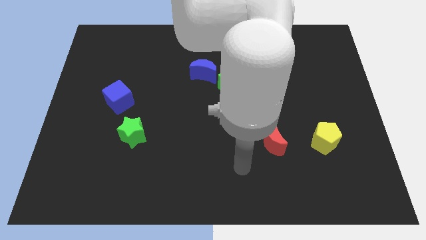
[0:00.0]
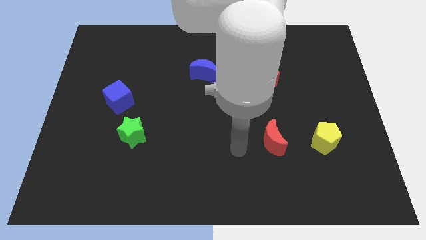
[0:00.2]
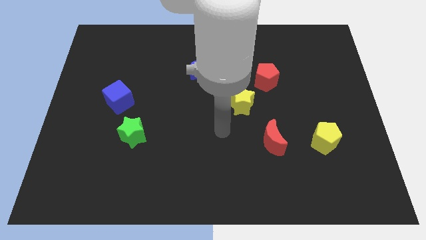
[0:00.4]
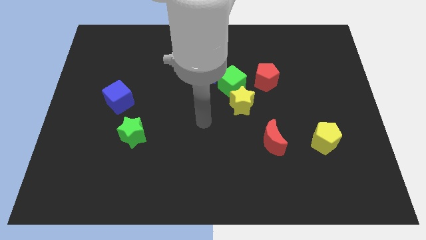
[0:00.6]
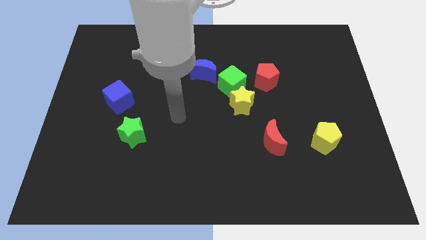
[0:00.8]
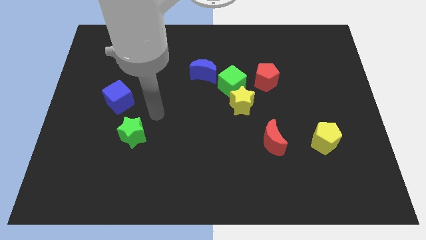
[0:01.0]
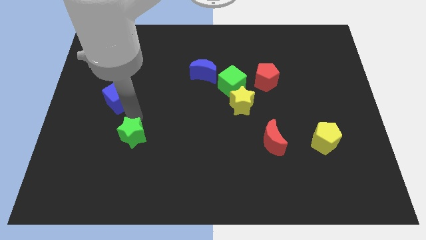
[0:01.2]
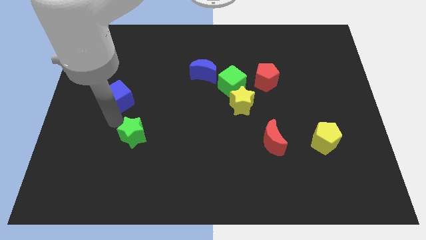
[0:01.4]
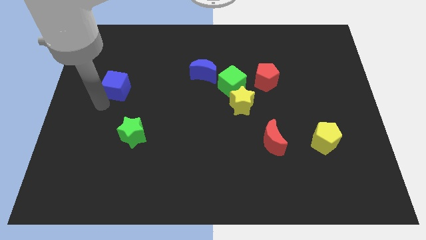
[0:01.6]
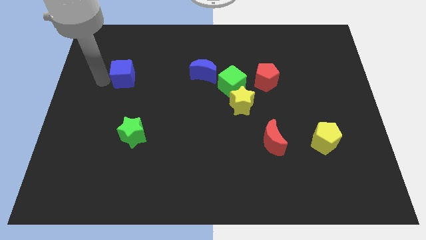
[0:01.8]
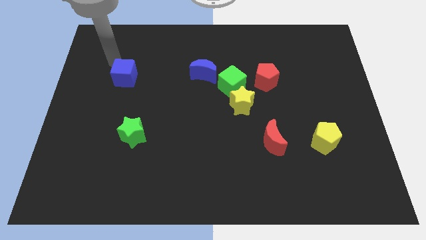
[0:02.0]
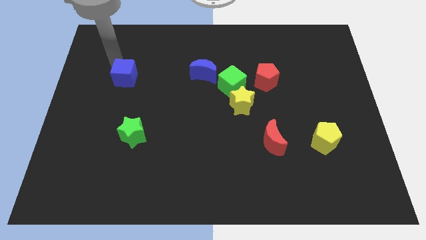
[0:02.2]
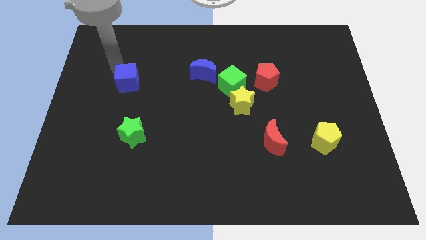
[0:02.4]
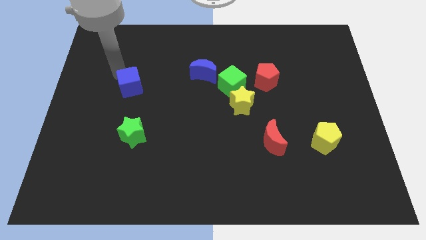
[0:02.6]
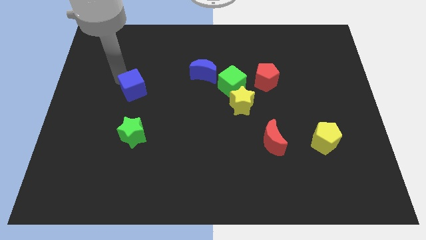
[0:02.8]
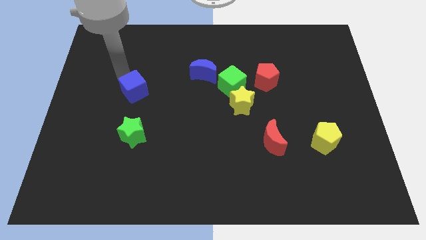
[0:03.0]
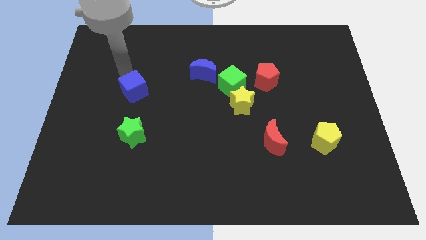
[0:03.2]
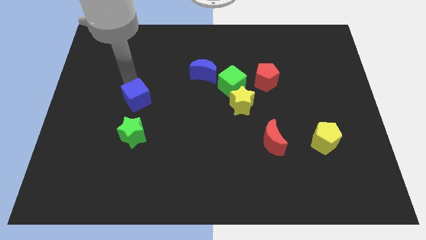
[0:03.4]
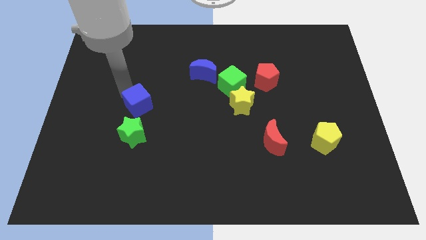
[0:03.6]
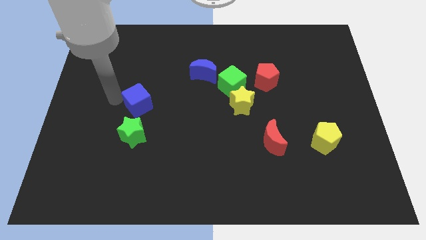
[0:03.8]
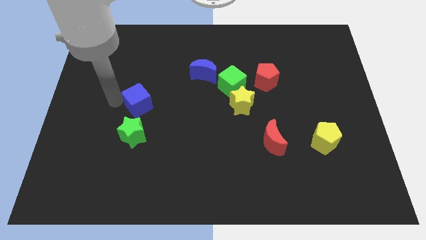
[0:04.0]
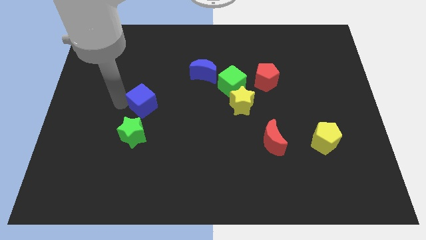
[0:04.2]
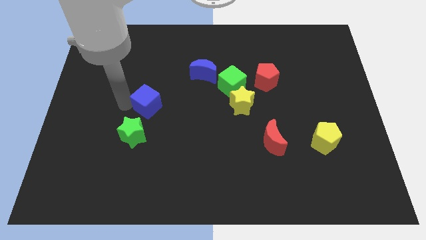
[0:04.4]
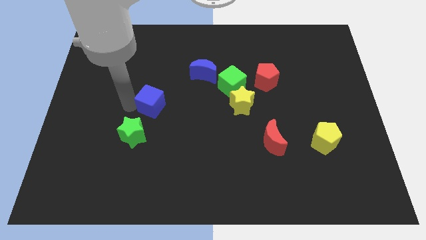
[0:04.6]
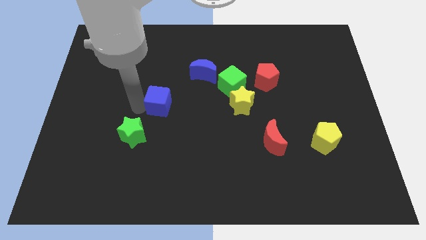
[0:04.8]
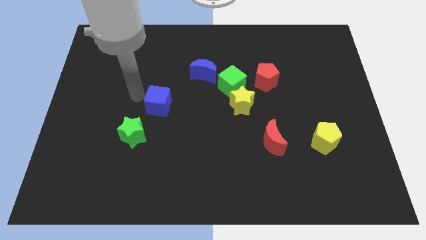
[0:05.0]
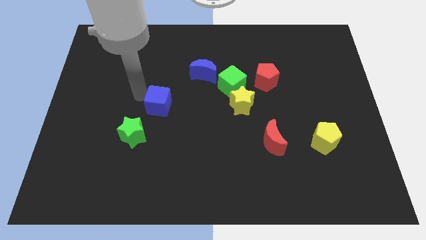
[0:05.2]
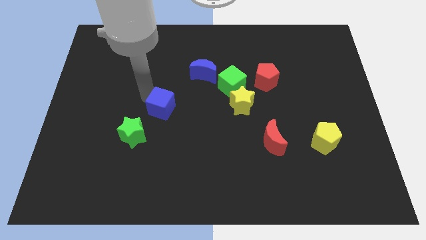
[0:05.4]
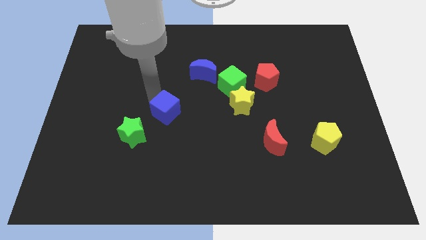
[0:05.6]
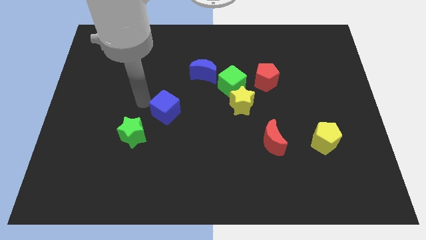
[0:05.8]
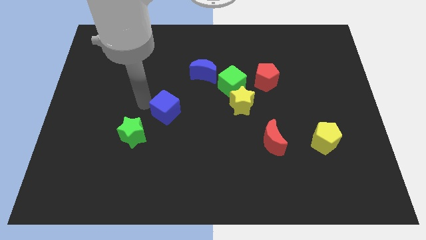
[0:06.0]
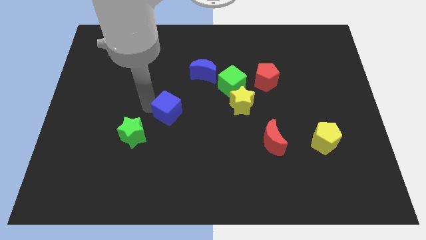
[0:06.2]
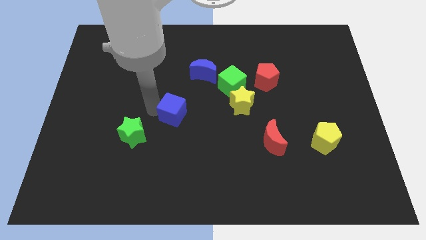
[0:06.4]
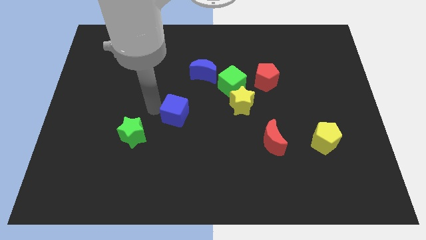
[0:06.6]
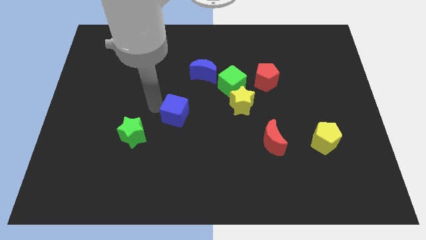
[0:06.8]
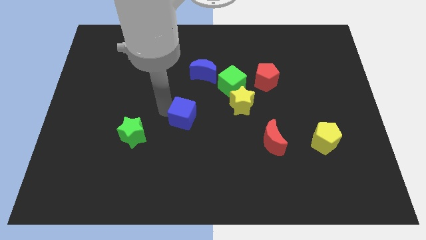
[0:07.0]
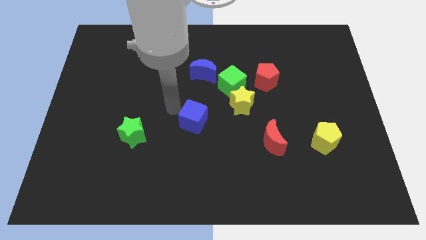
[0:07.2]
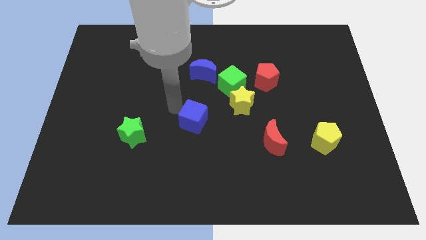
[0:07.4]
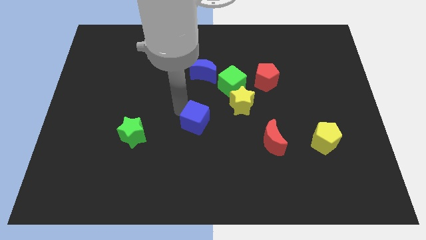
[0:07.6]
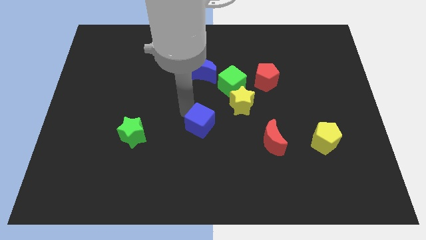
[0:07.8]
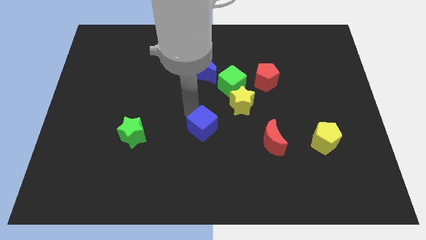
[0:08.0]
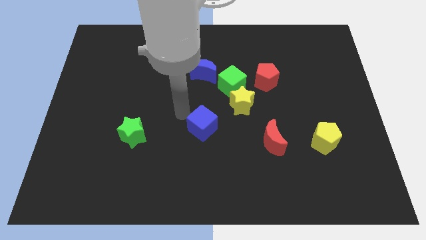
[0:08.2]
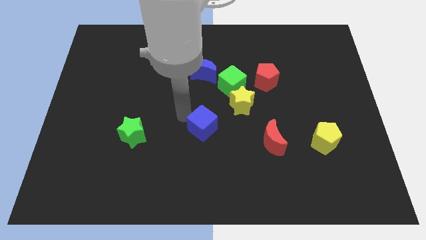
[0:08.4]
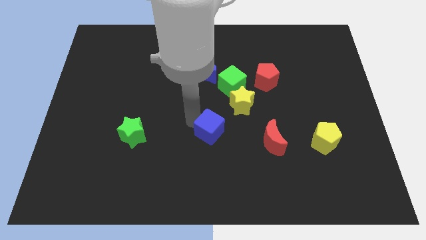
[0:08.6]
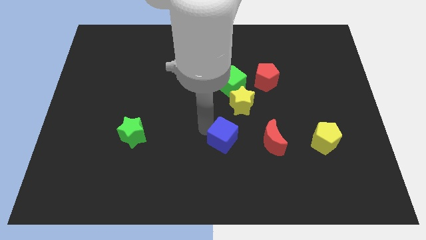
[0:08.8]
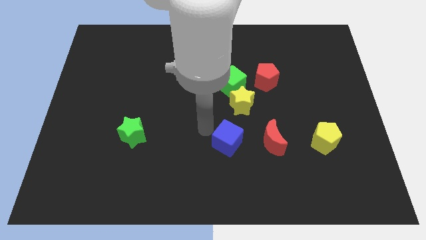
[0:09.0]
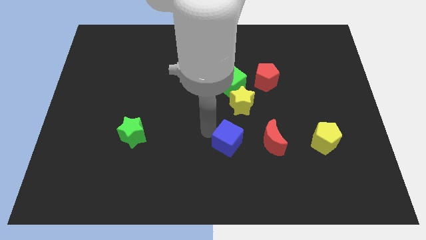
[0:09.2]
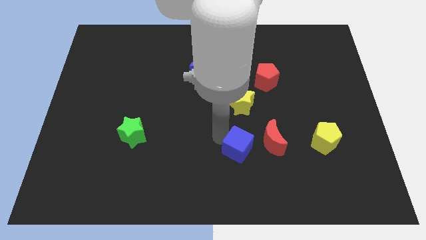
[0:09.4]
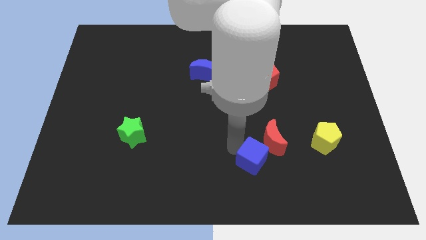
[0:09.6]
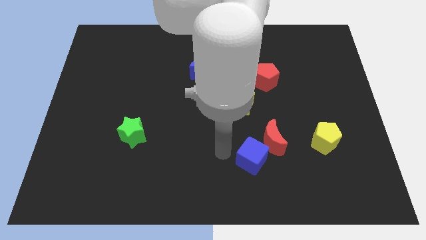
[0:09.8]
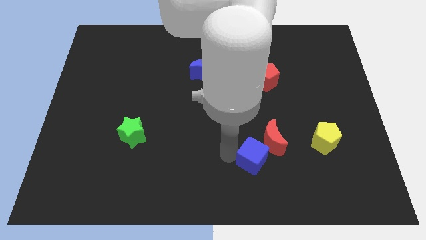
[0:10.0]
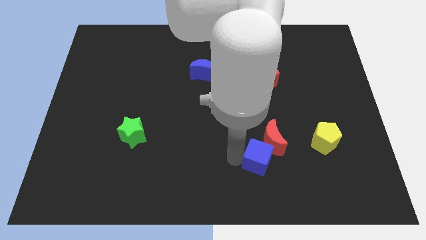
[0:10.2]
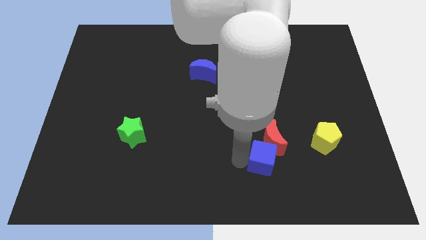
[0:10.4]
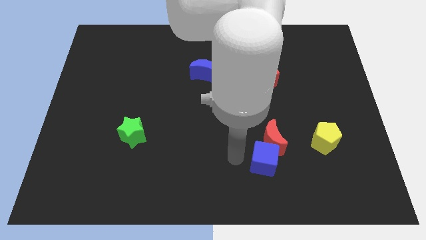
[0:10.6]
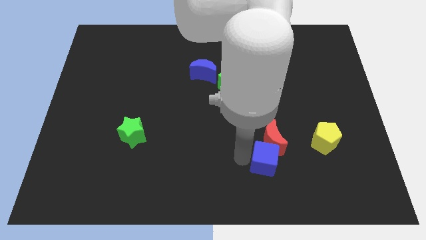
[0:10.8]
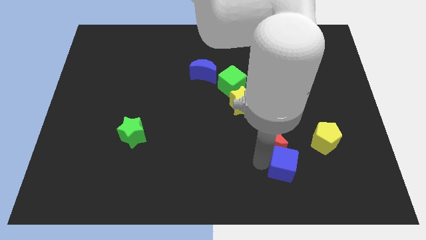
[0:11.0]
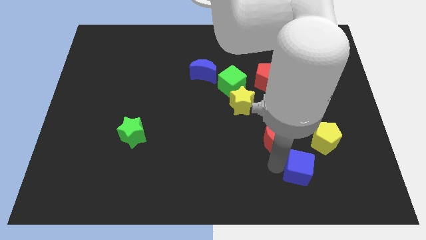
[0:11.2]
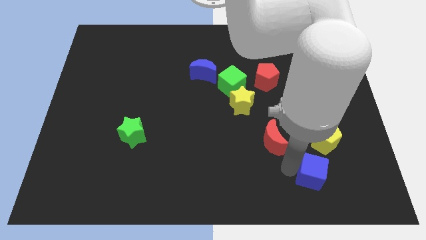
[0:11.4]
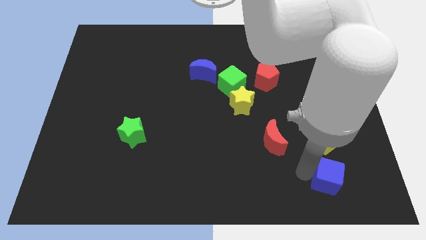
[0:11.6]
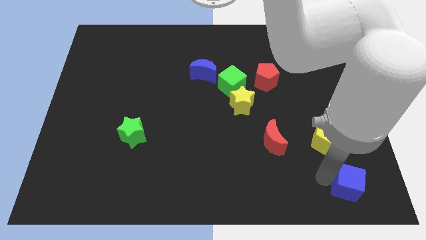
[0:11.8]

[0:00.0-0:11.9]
slide the blue cube to the bottom right of the board
